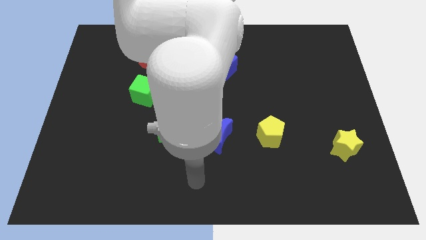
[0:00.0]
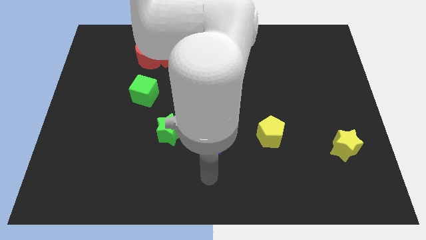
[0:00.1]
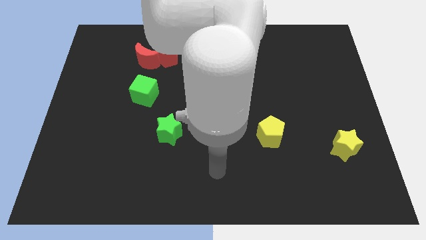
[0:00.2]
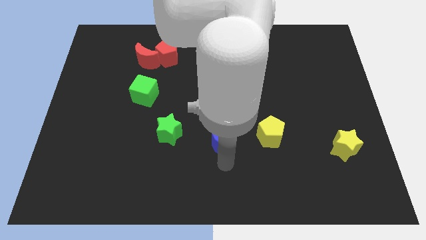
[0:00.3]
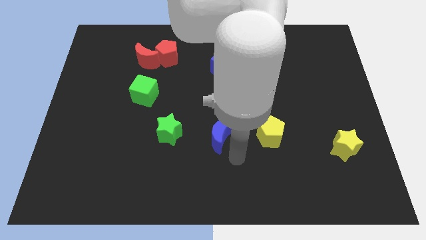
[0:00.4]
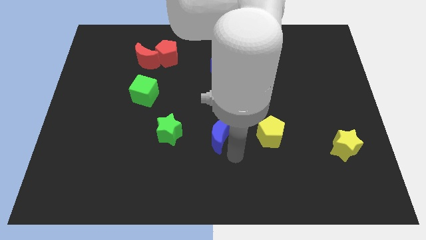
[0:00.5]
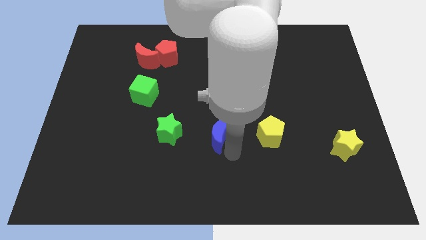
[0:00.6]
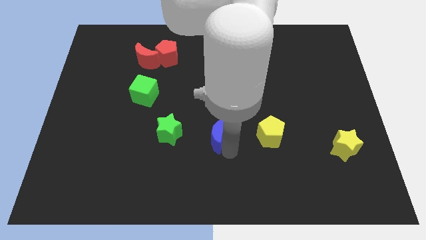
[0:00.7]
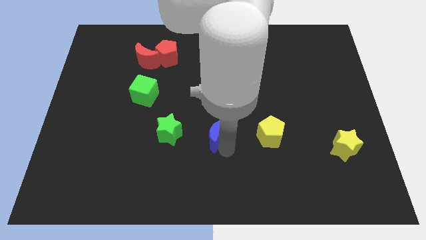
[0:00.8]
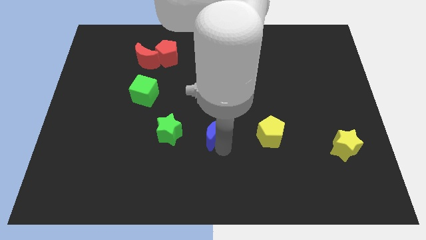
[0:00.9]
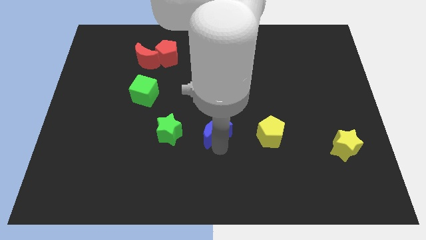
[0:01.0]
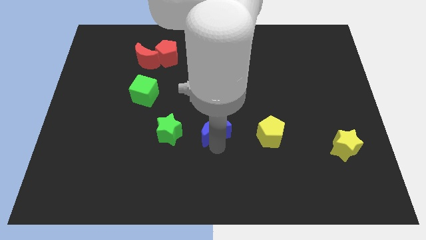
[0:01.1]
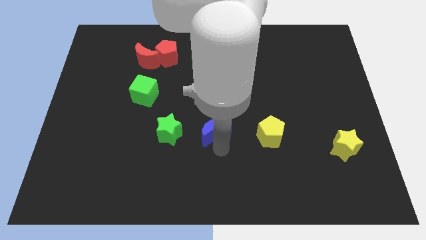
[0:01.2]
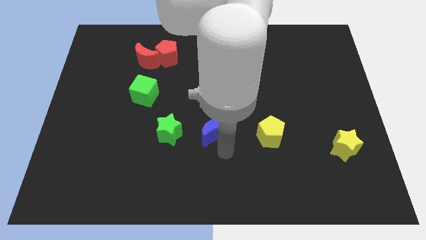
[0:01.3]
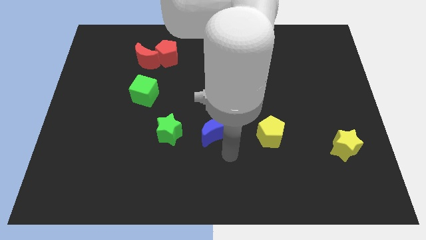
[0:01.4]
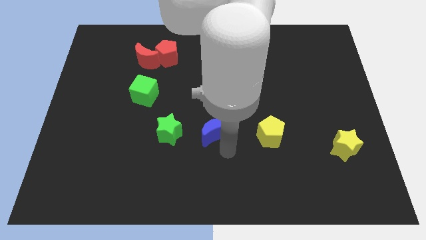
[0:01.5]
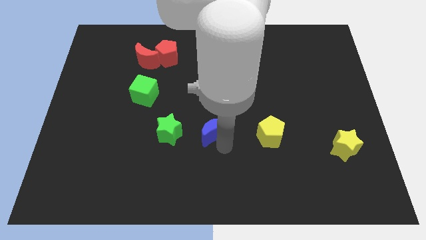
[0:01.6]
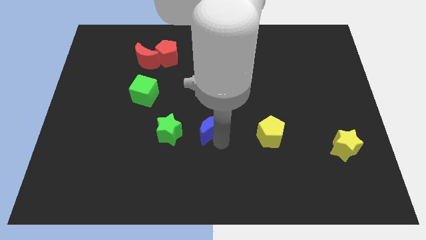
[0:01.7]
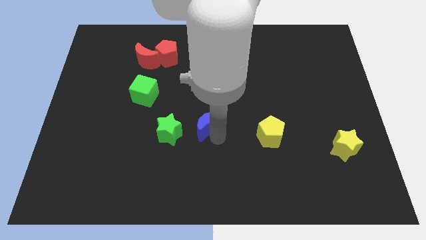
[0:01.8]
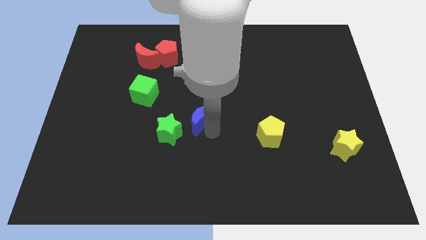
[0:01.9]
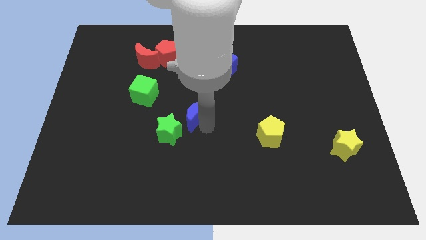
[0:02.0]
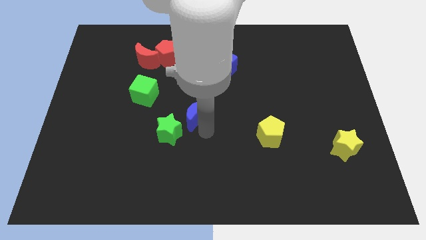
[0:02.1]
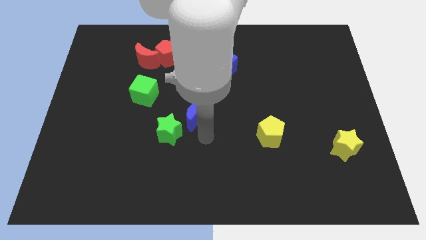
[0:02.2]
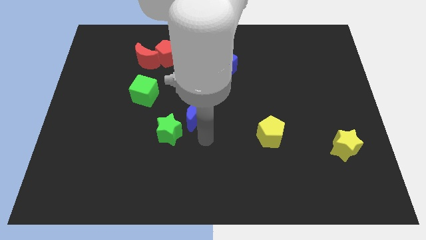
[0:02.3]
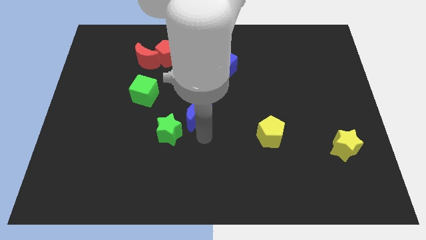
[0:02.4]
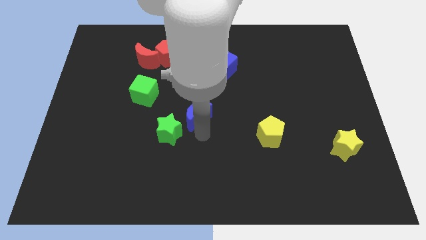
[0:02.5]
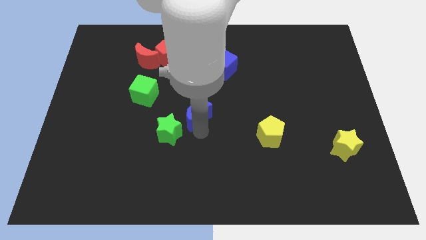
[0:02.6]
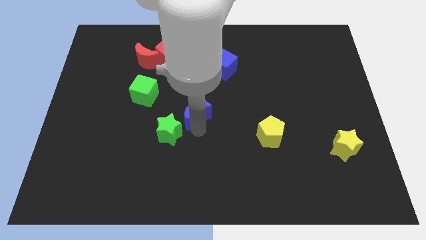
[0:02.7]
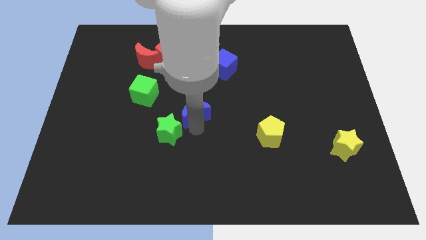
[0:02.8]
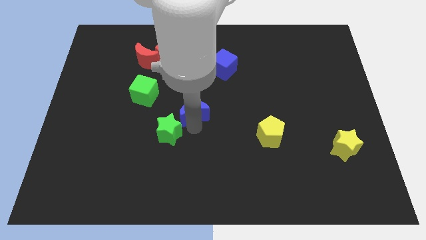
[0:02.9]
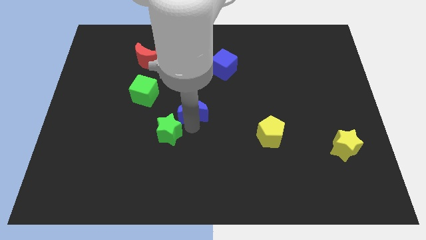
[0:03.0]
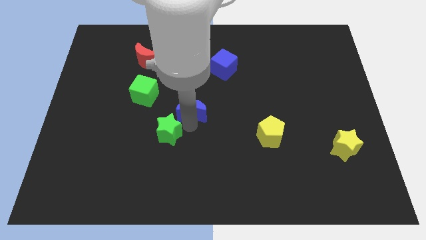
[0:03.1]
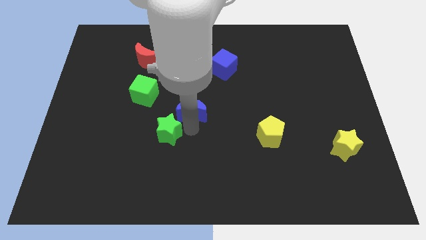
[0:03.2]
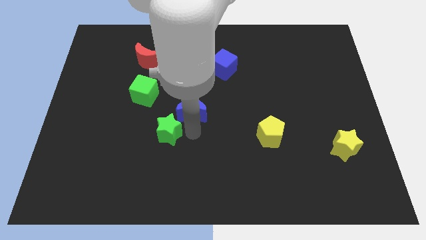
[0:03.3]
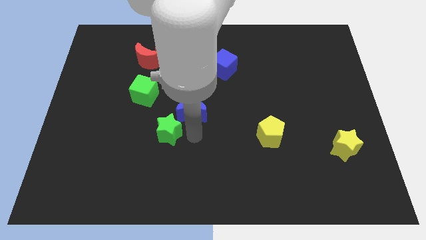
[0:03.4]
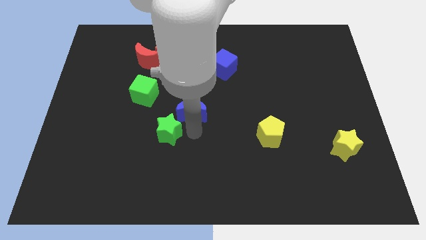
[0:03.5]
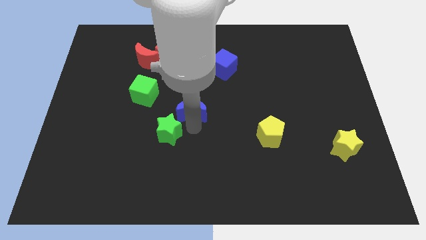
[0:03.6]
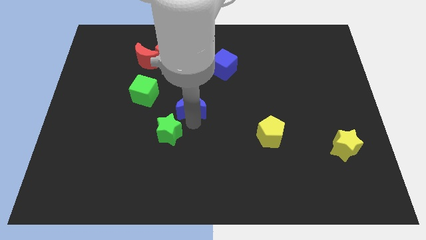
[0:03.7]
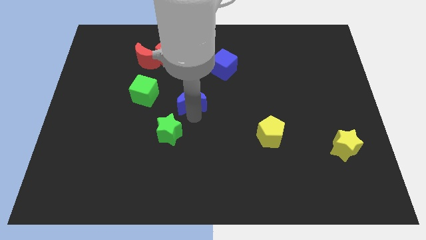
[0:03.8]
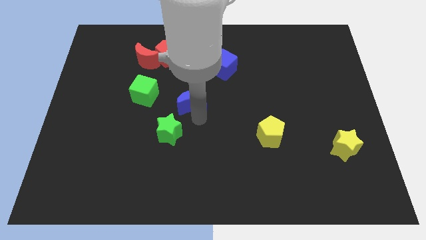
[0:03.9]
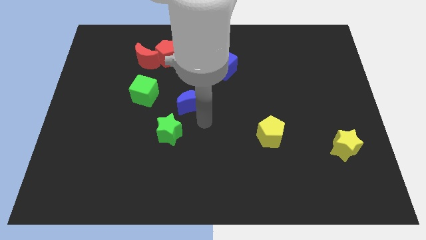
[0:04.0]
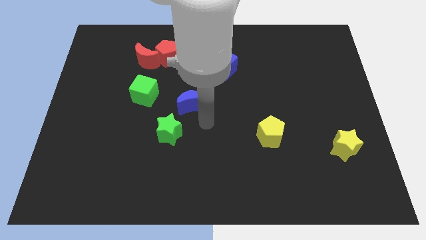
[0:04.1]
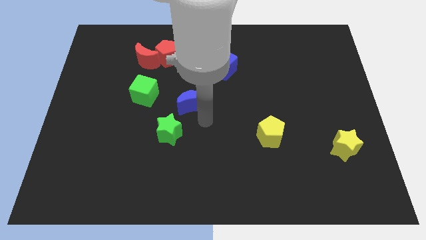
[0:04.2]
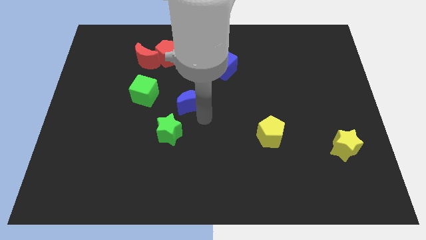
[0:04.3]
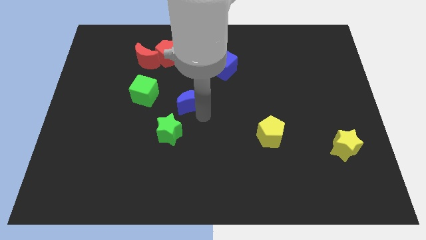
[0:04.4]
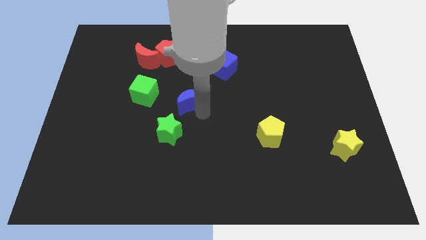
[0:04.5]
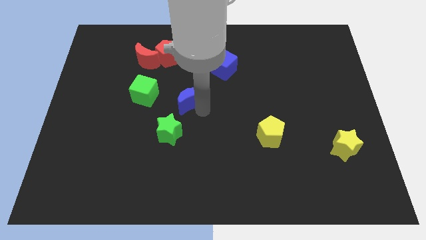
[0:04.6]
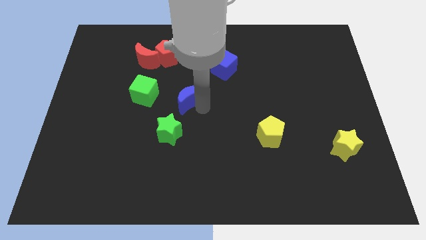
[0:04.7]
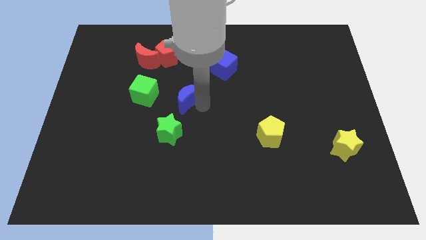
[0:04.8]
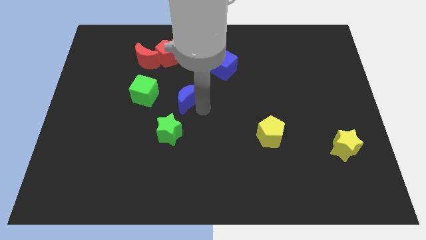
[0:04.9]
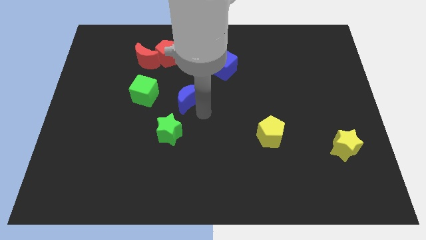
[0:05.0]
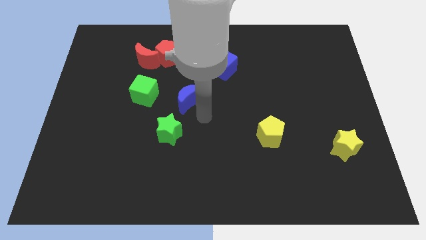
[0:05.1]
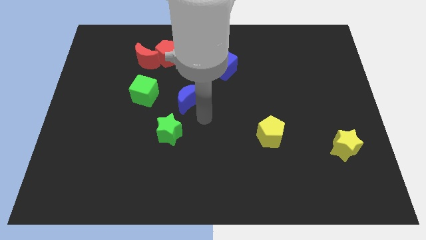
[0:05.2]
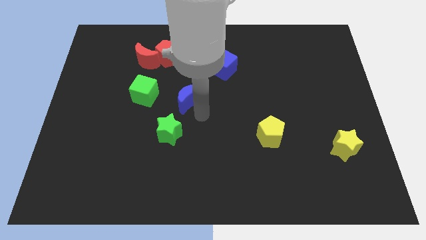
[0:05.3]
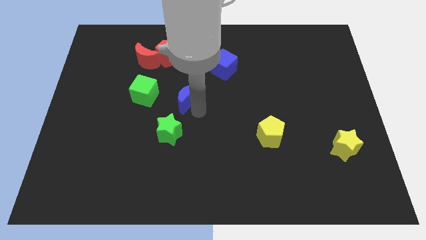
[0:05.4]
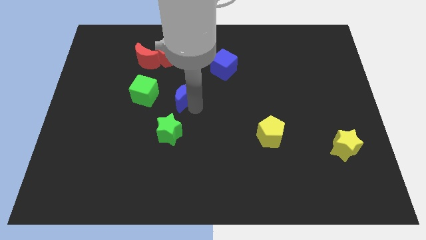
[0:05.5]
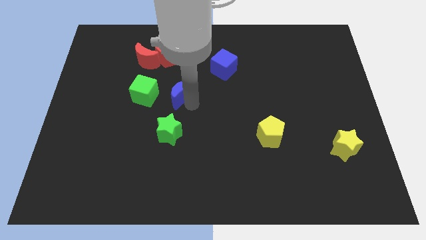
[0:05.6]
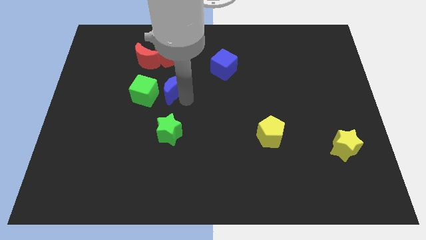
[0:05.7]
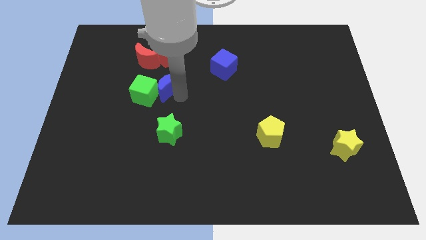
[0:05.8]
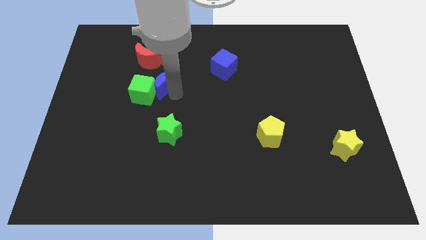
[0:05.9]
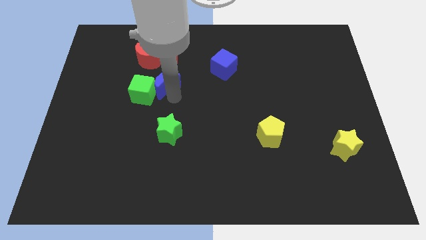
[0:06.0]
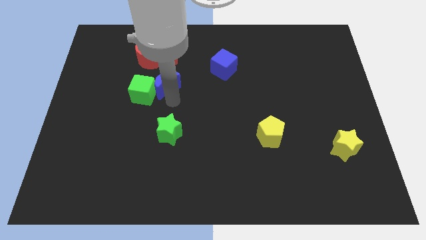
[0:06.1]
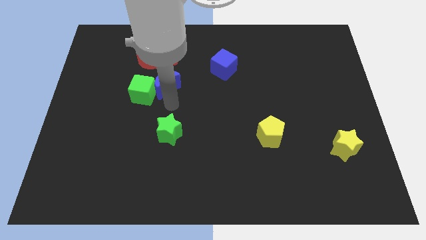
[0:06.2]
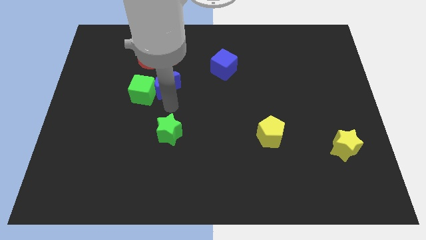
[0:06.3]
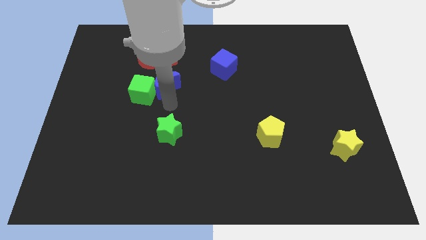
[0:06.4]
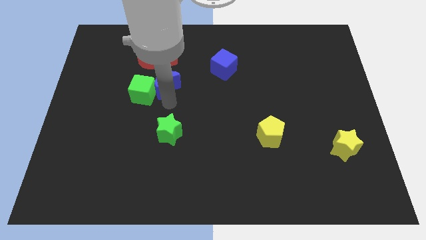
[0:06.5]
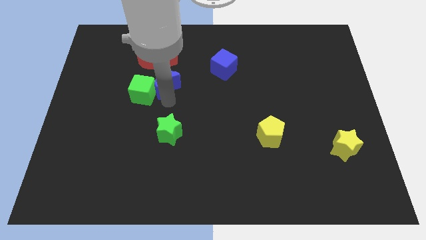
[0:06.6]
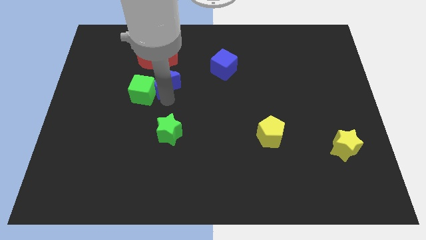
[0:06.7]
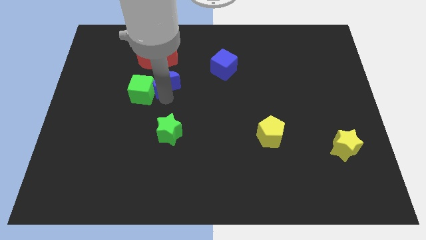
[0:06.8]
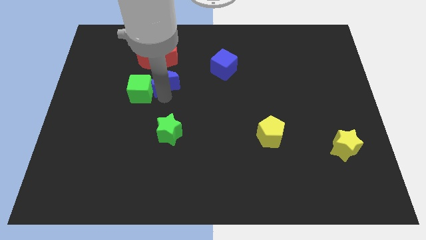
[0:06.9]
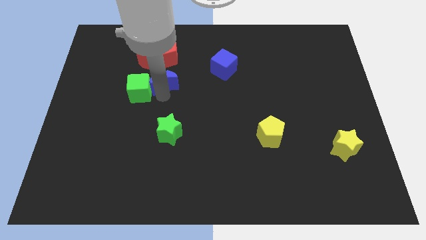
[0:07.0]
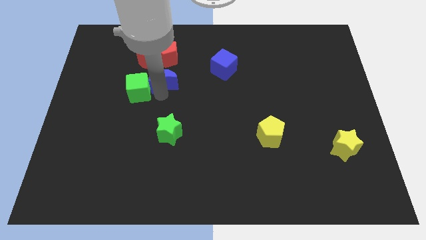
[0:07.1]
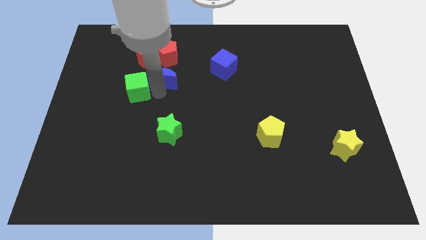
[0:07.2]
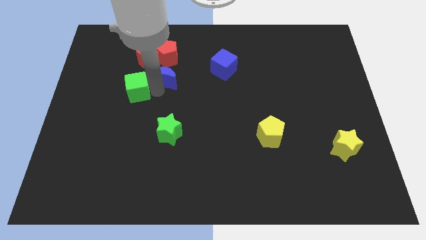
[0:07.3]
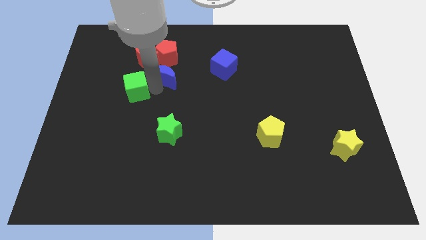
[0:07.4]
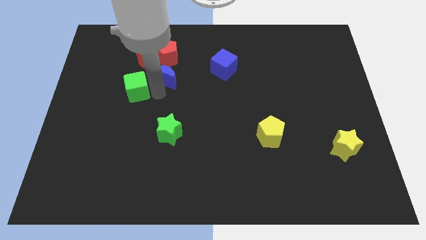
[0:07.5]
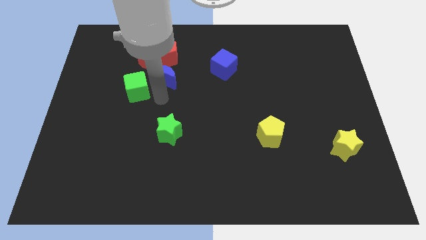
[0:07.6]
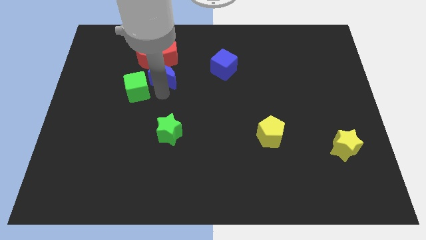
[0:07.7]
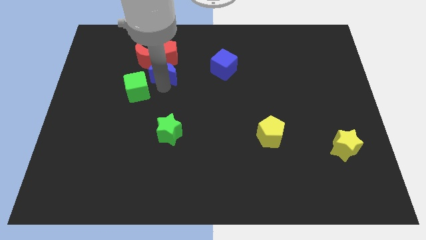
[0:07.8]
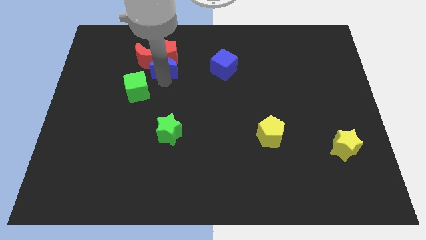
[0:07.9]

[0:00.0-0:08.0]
slide the blue moon close to the red pentagon
